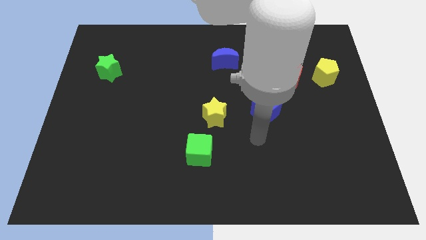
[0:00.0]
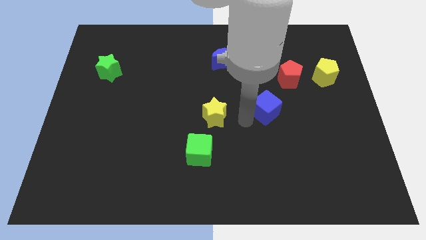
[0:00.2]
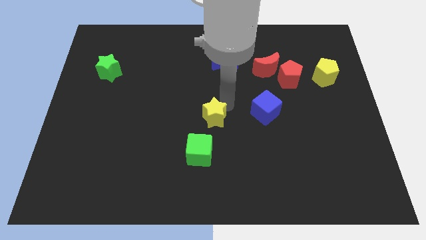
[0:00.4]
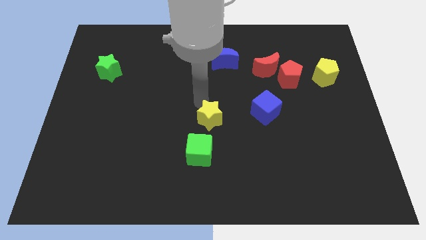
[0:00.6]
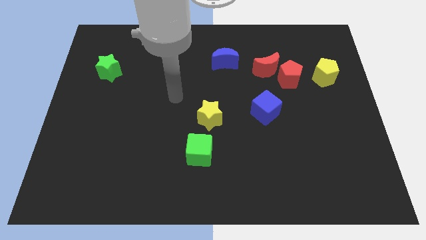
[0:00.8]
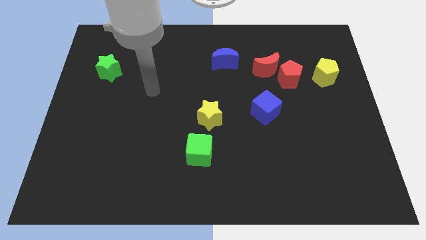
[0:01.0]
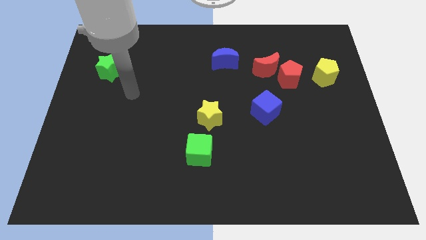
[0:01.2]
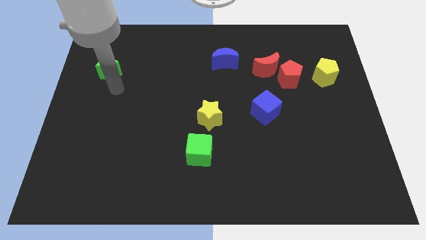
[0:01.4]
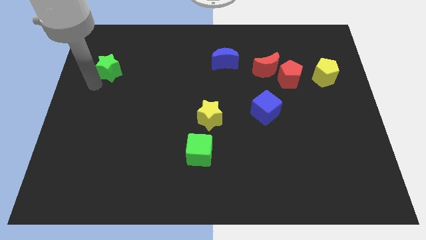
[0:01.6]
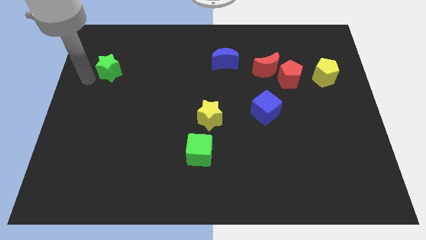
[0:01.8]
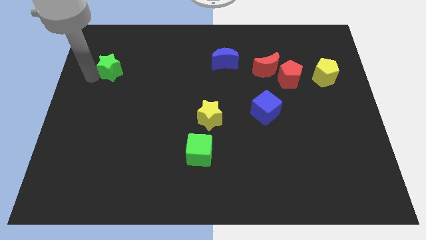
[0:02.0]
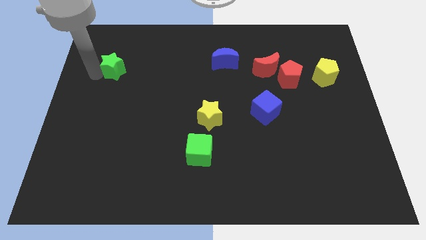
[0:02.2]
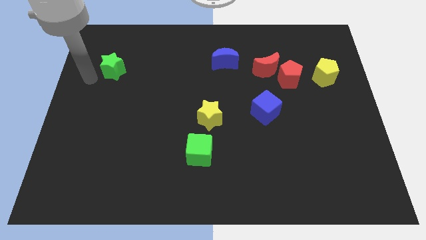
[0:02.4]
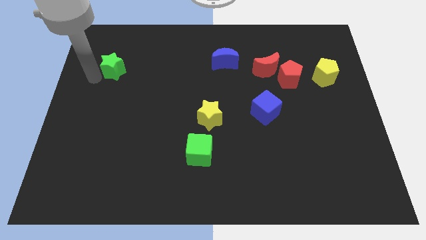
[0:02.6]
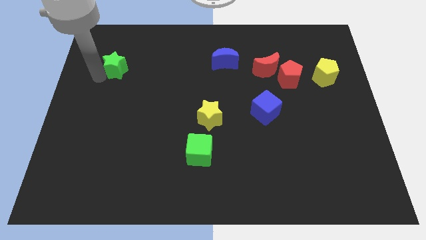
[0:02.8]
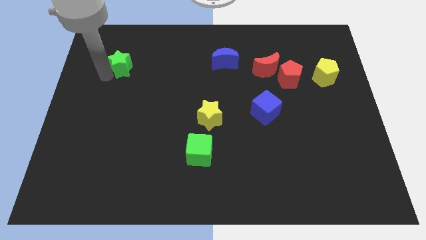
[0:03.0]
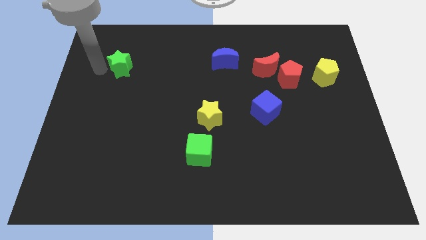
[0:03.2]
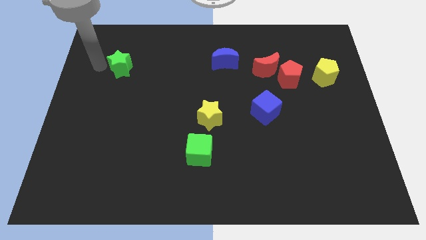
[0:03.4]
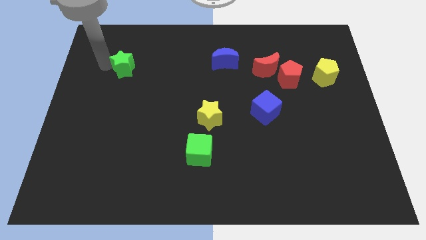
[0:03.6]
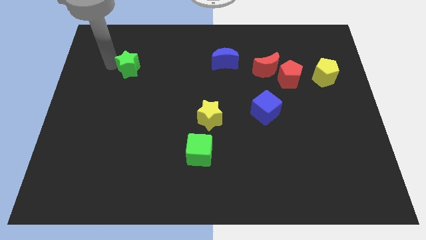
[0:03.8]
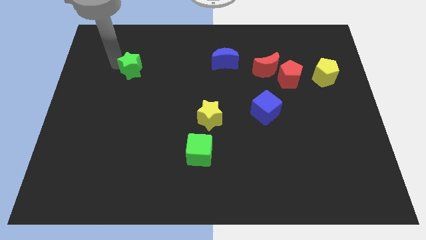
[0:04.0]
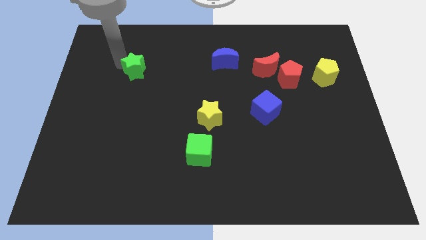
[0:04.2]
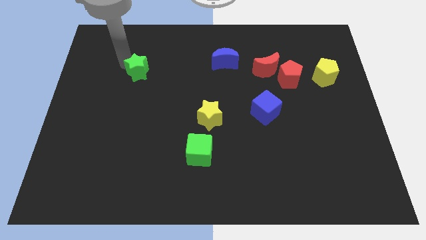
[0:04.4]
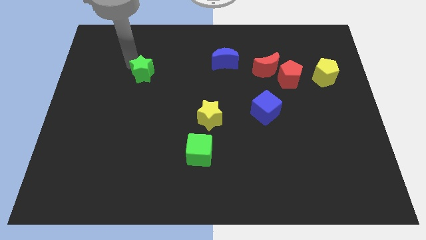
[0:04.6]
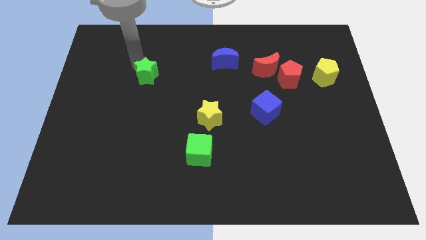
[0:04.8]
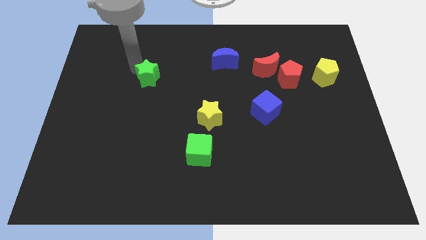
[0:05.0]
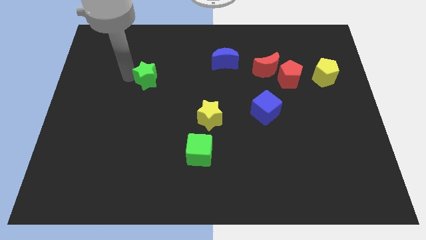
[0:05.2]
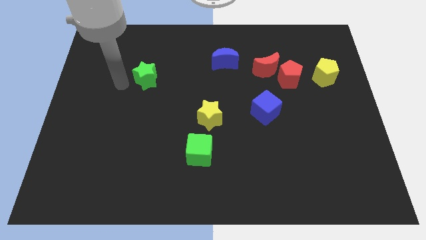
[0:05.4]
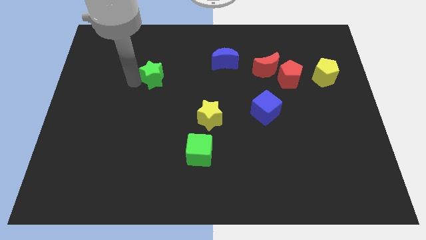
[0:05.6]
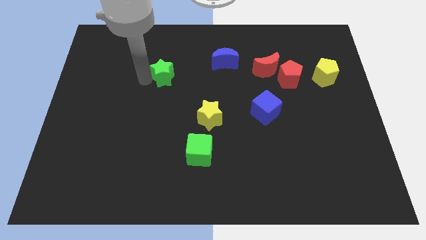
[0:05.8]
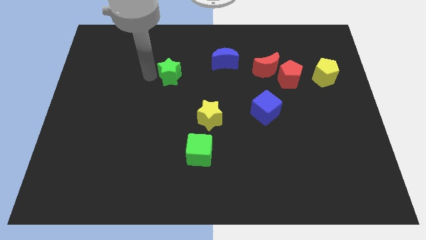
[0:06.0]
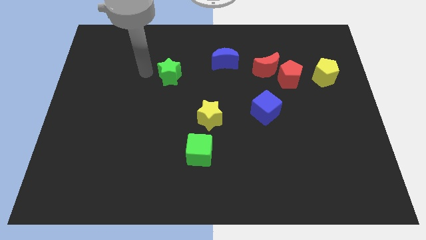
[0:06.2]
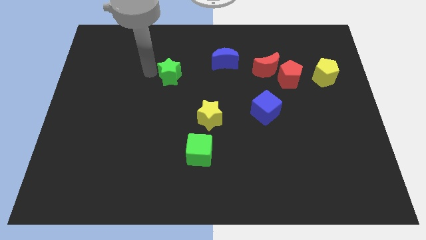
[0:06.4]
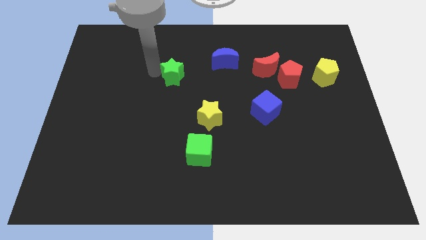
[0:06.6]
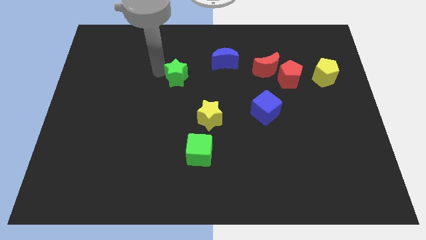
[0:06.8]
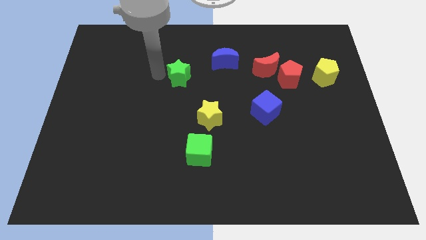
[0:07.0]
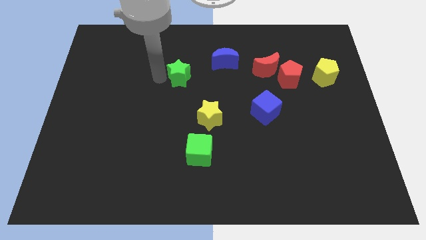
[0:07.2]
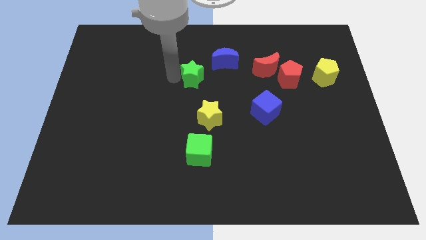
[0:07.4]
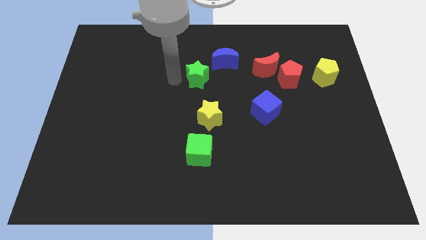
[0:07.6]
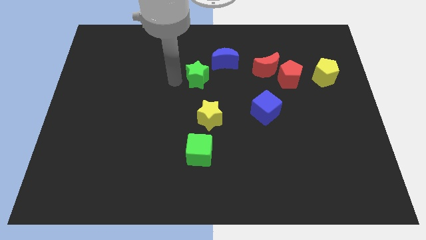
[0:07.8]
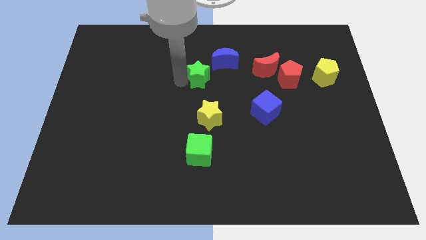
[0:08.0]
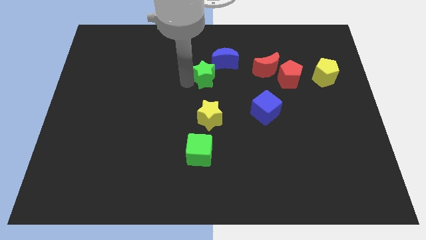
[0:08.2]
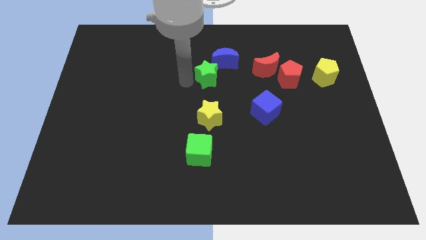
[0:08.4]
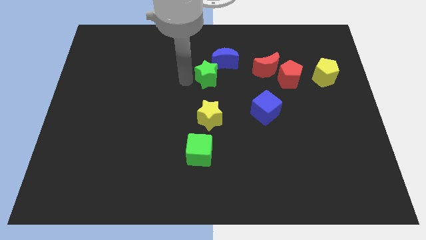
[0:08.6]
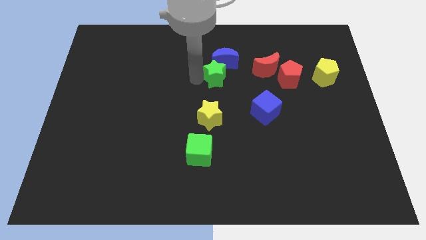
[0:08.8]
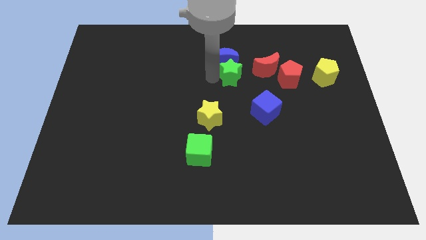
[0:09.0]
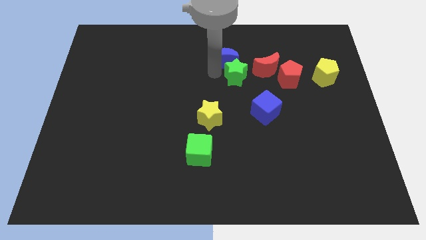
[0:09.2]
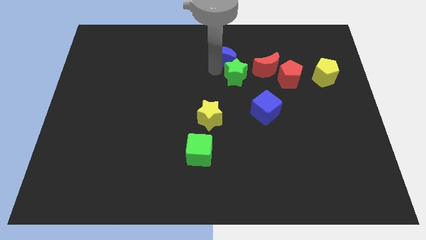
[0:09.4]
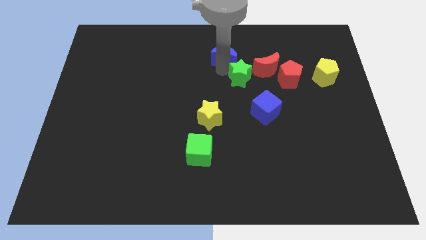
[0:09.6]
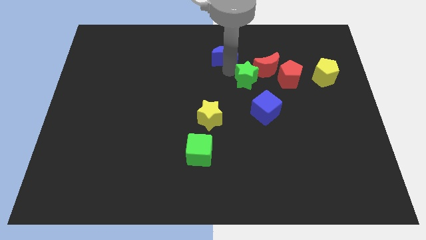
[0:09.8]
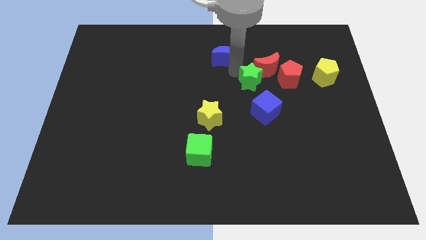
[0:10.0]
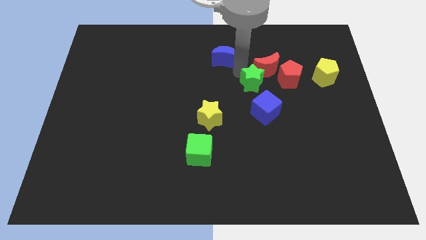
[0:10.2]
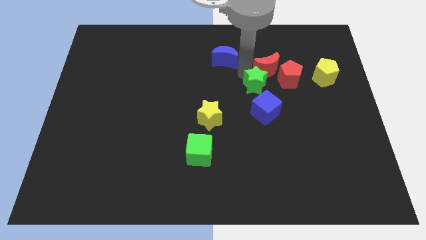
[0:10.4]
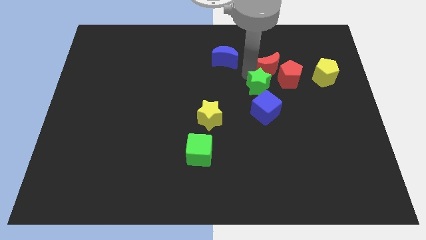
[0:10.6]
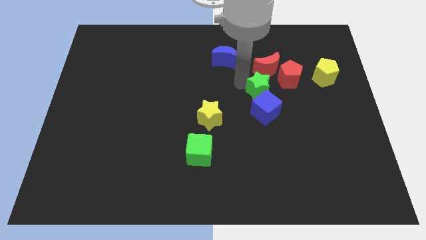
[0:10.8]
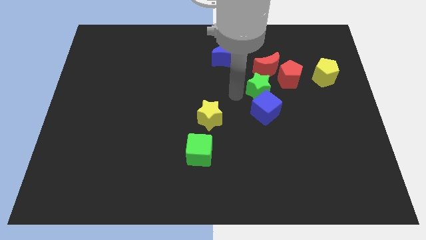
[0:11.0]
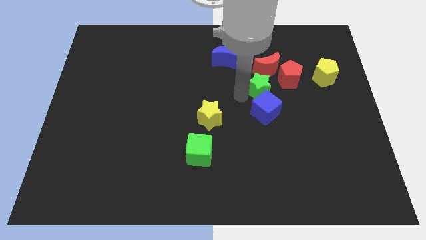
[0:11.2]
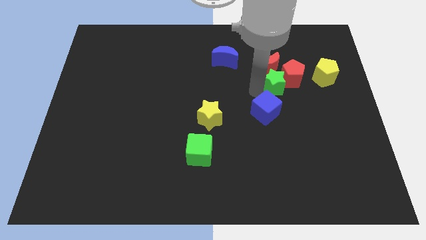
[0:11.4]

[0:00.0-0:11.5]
put the green star close to the red pentagon
